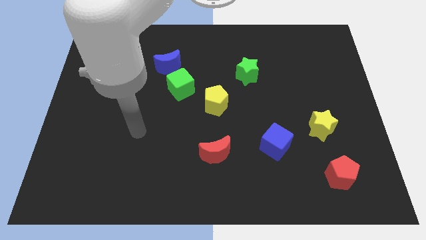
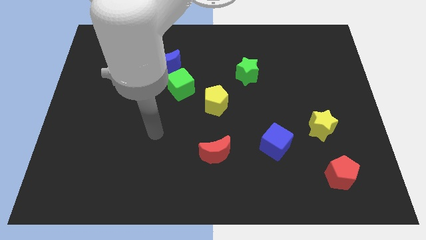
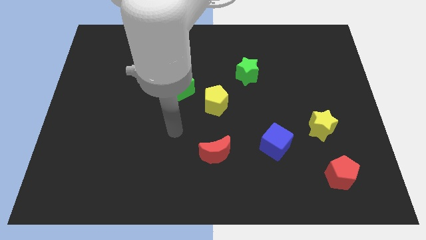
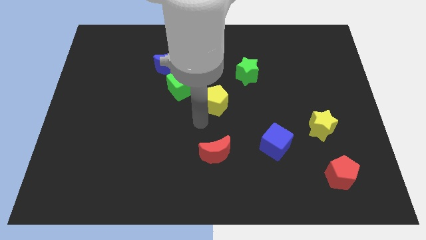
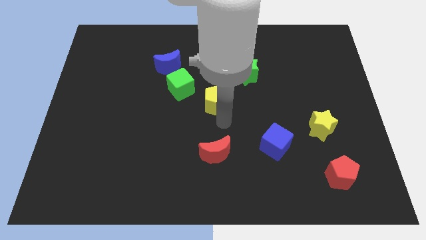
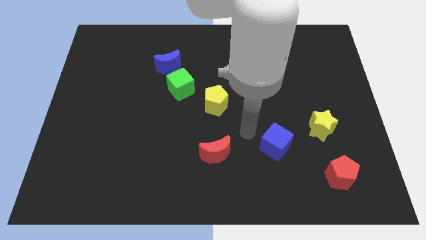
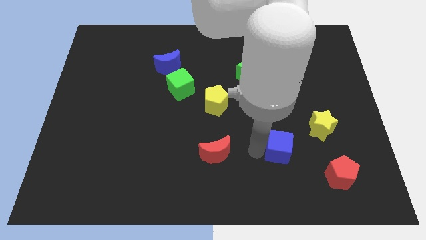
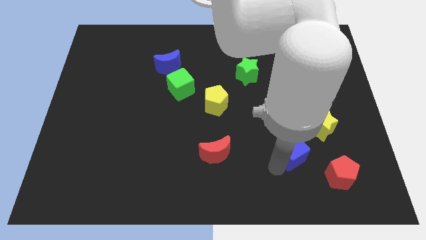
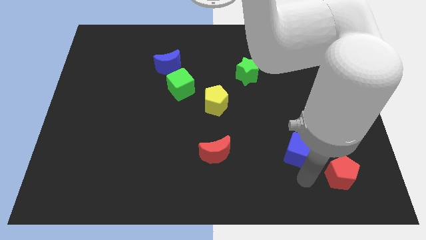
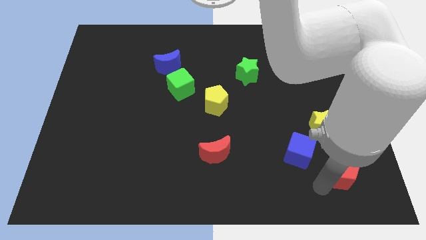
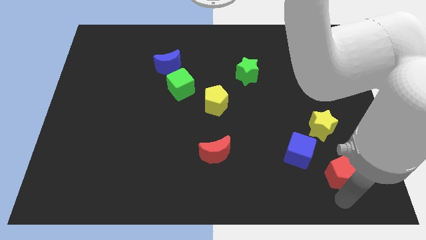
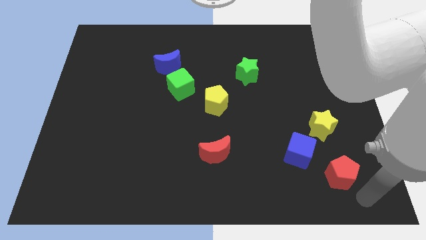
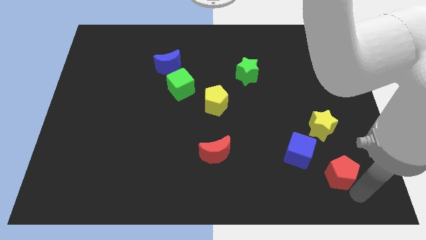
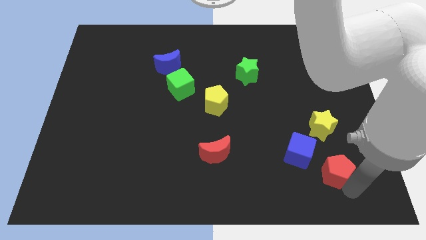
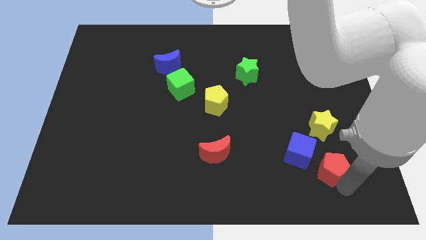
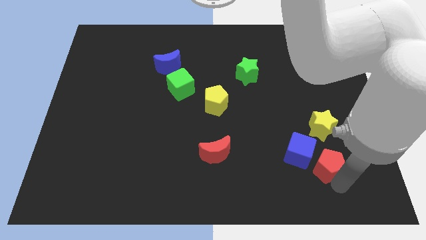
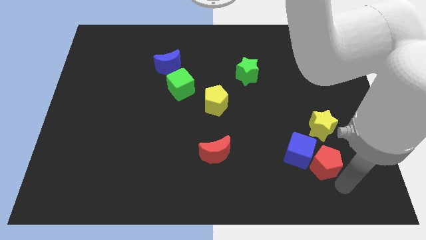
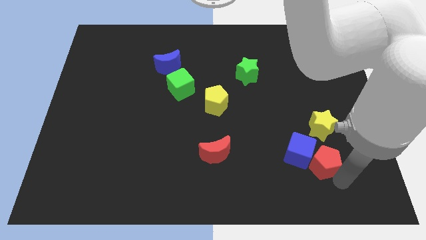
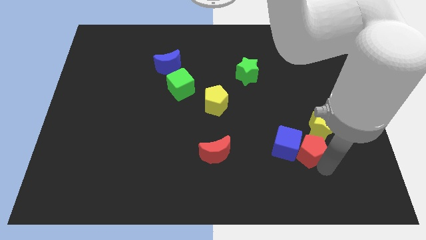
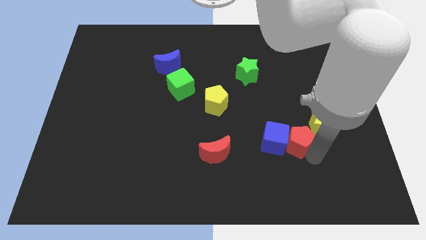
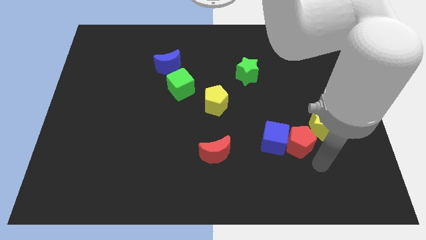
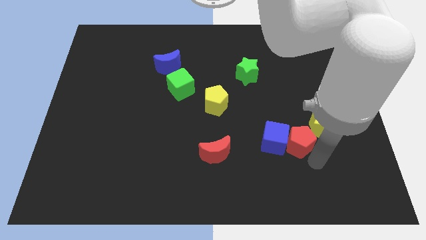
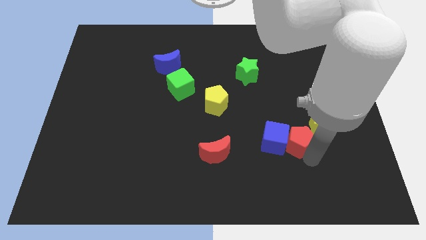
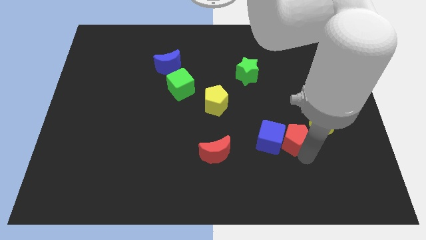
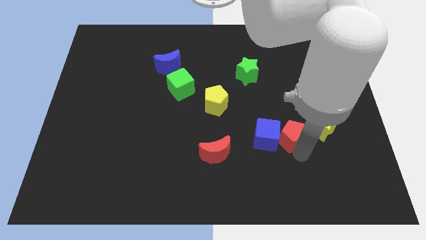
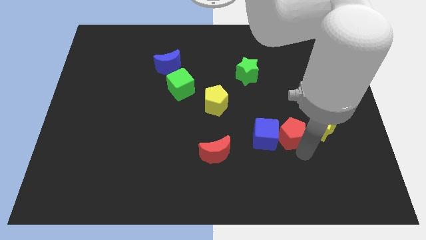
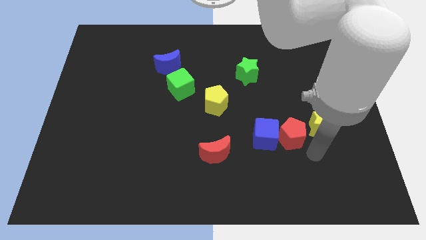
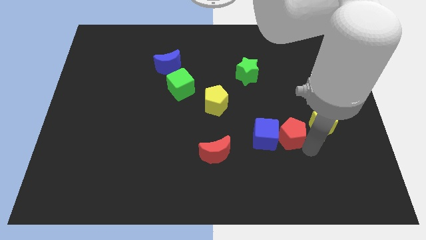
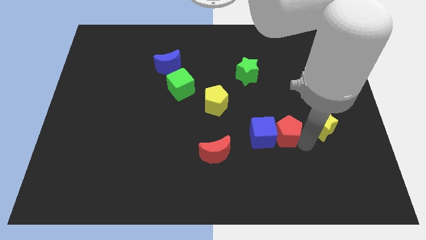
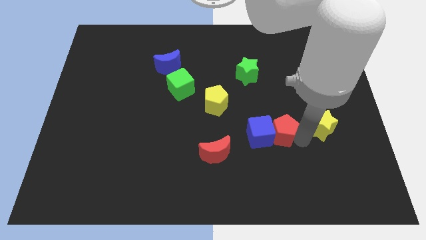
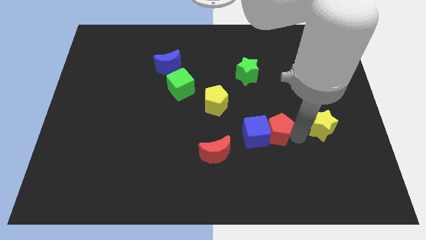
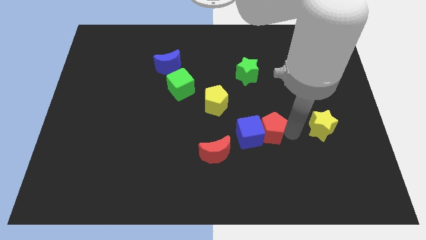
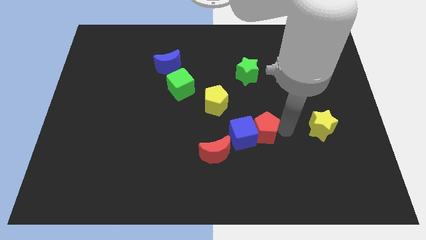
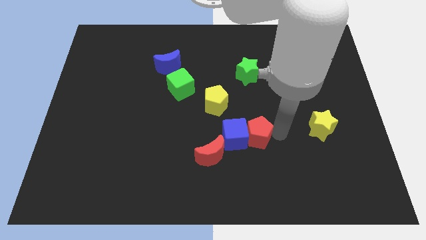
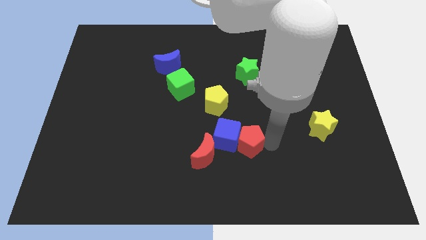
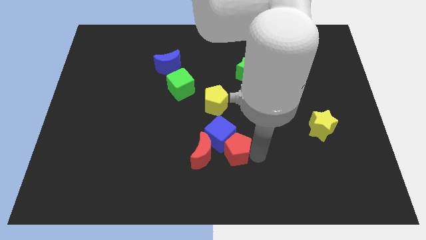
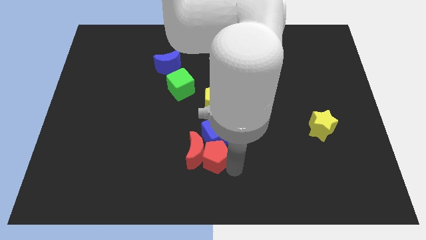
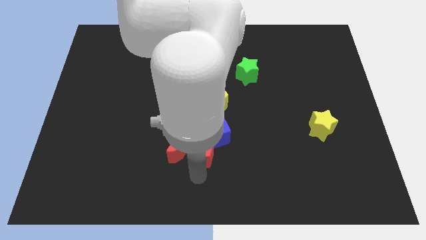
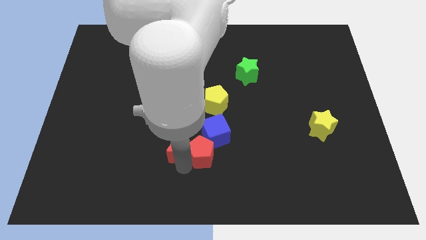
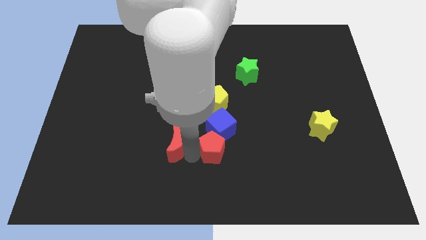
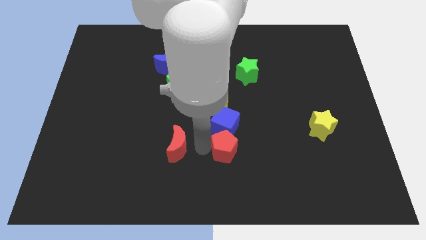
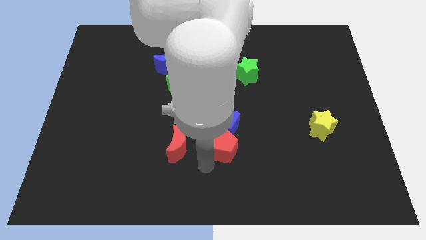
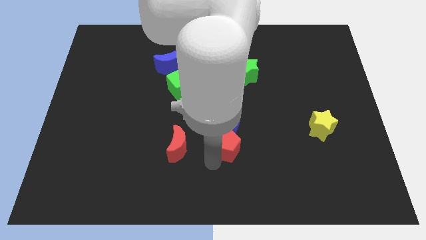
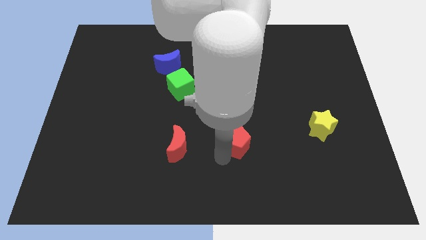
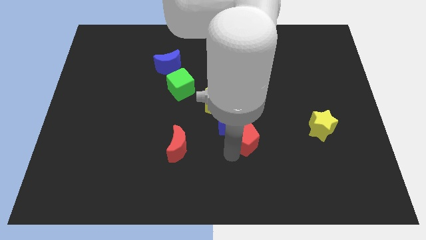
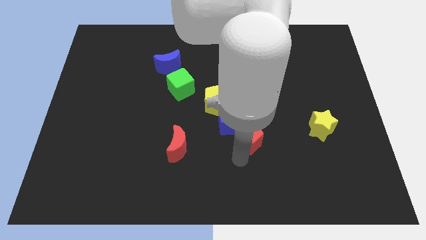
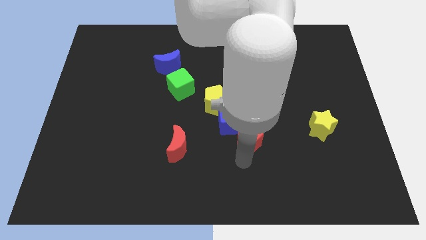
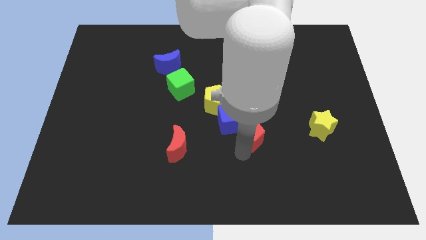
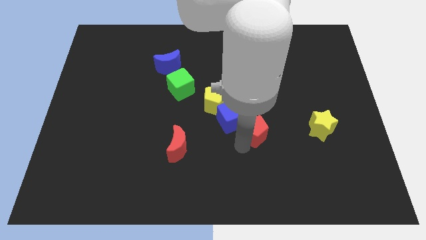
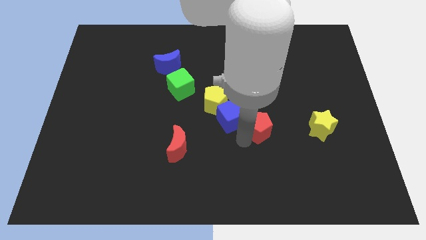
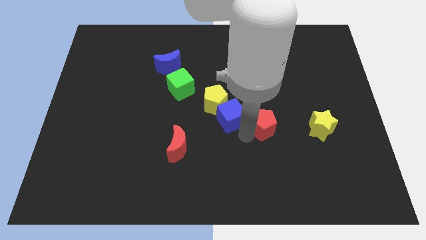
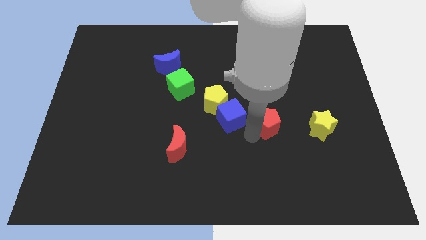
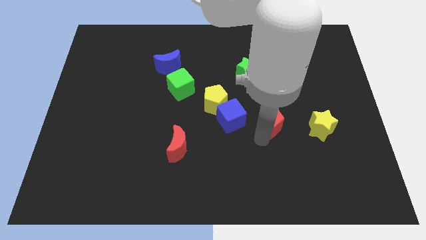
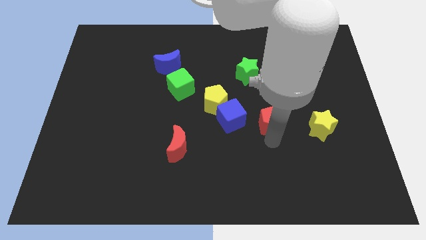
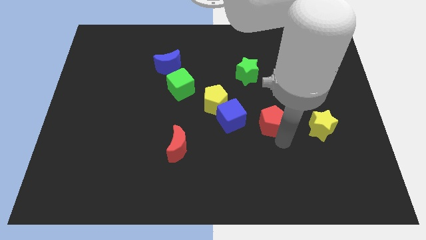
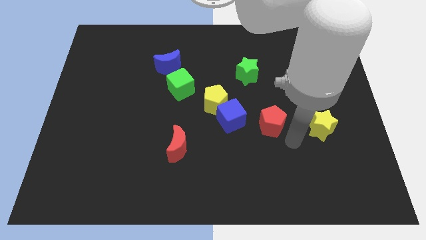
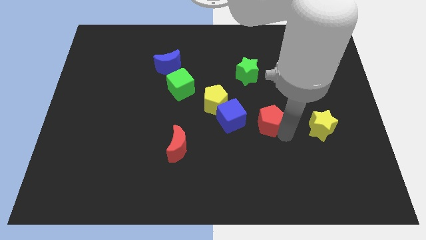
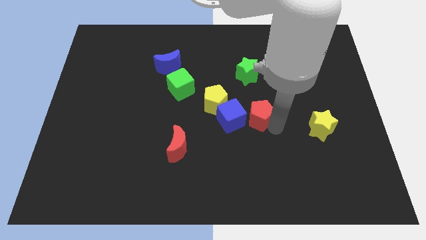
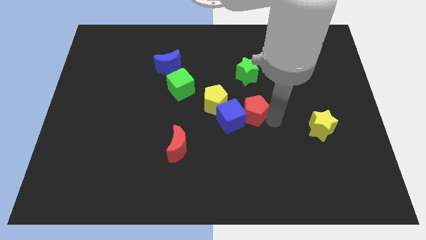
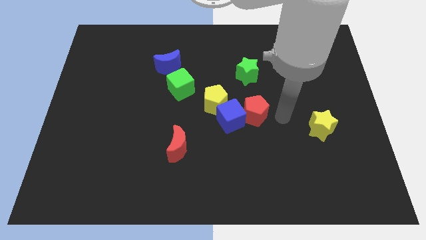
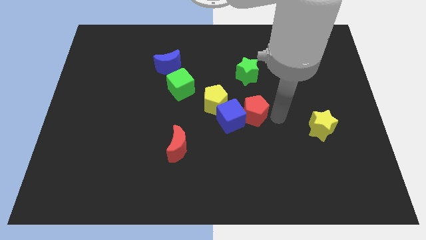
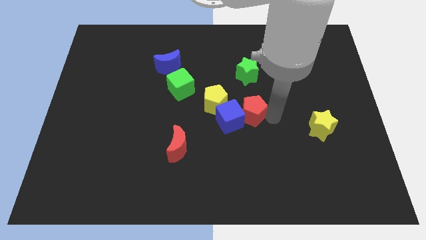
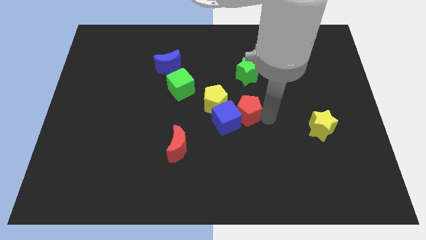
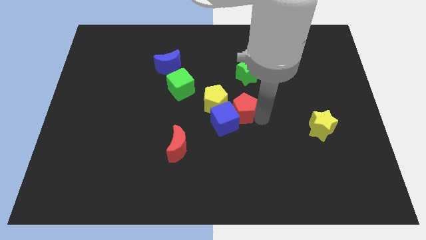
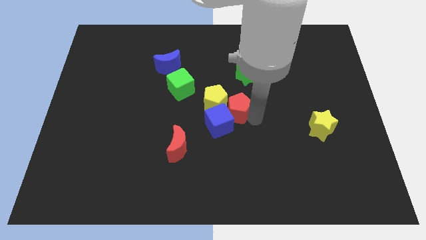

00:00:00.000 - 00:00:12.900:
put the red pentagon next to the yellow pentagon

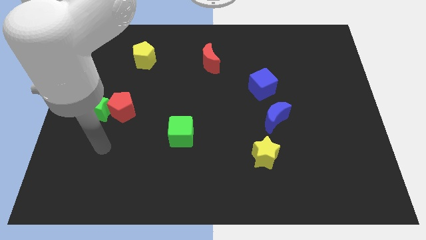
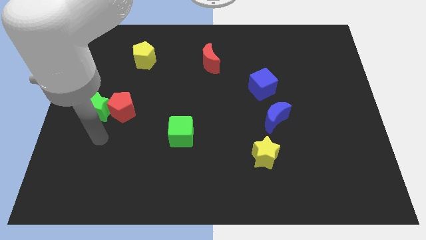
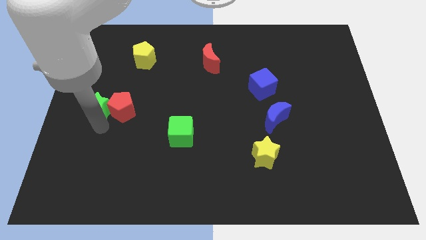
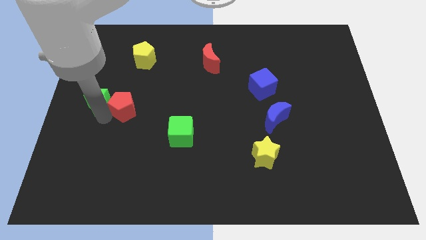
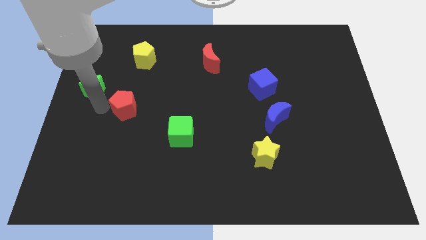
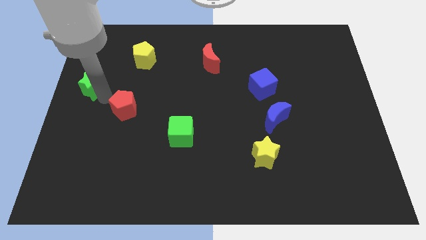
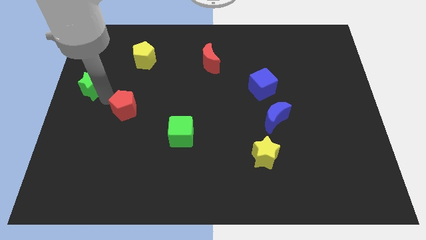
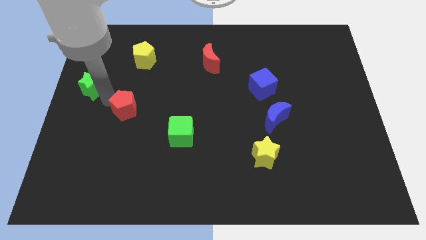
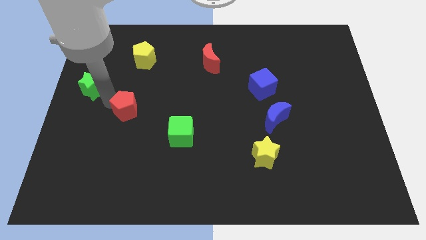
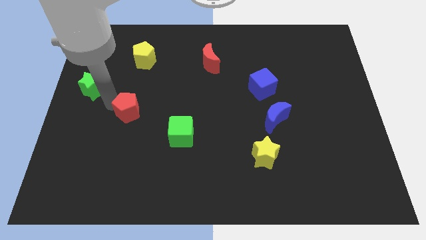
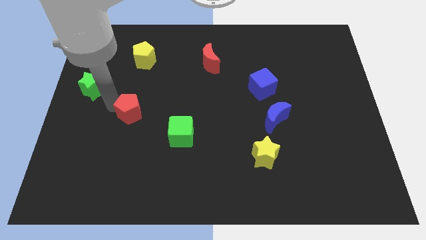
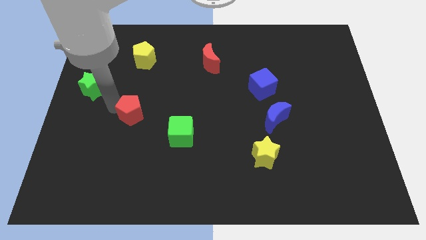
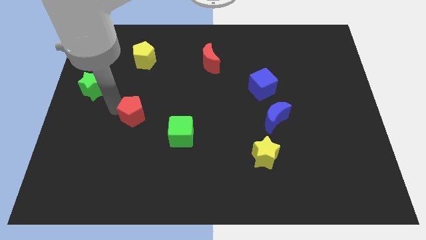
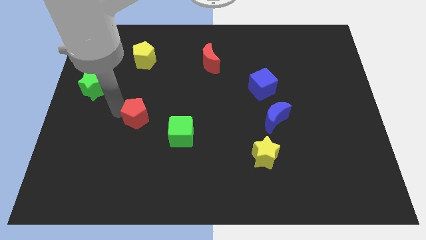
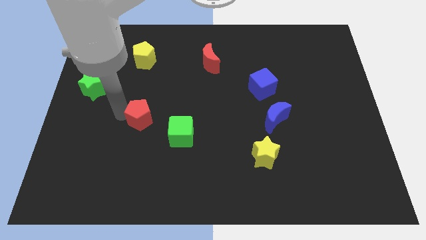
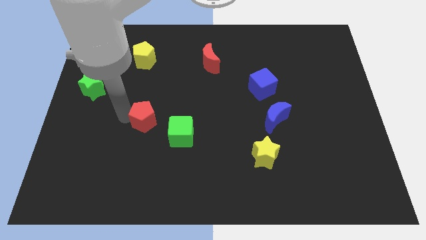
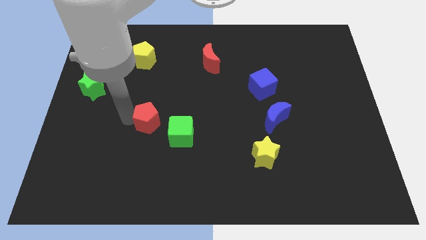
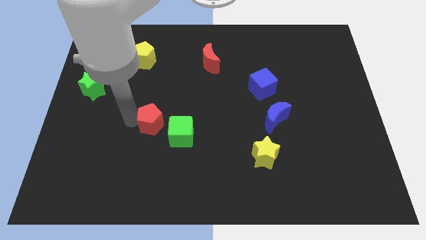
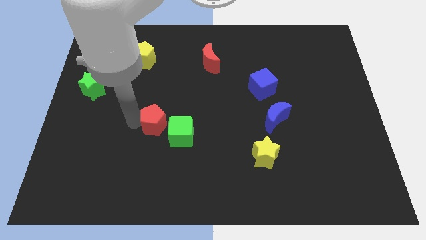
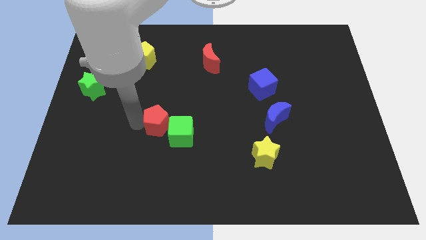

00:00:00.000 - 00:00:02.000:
push the red pentagon to the green cube
